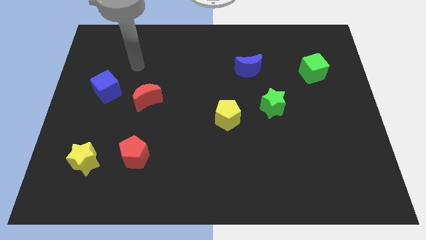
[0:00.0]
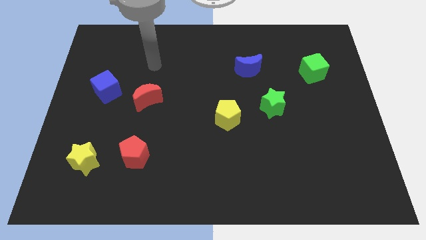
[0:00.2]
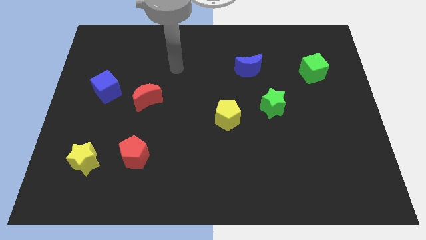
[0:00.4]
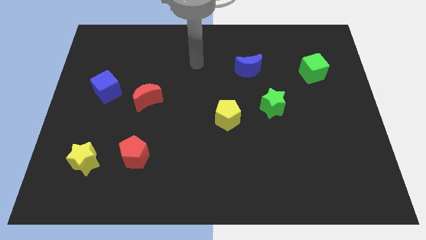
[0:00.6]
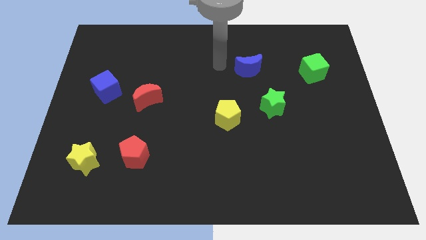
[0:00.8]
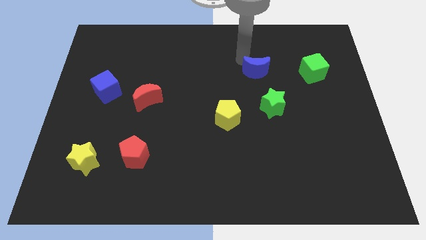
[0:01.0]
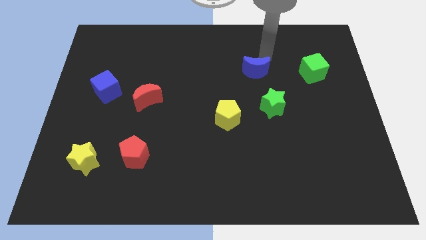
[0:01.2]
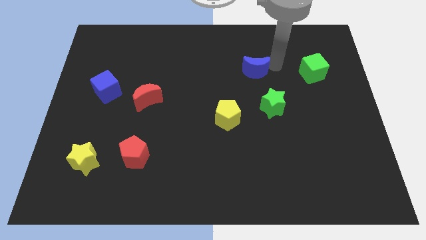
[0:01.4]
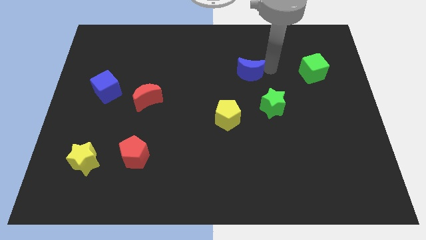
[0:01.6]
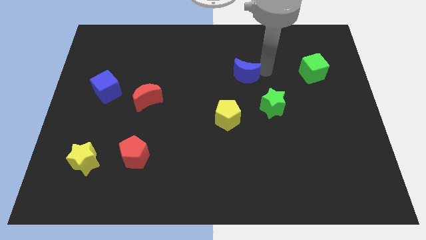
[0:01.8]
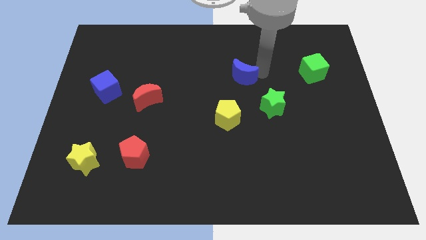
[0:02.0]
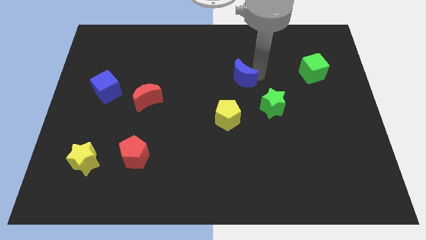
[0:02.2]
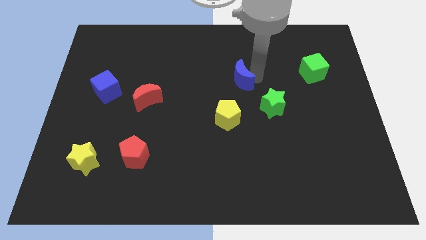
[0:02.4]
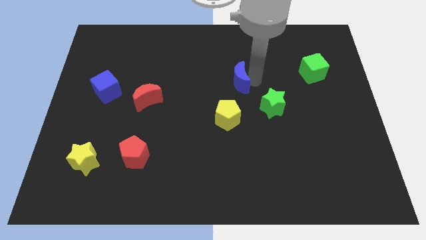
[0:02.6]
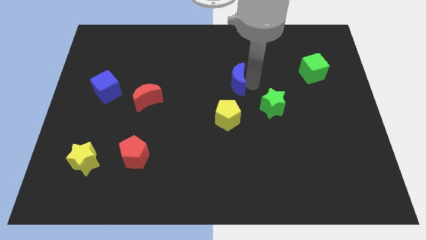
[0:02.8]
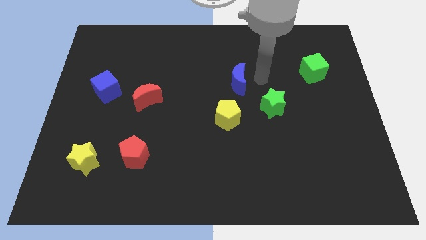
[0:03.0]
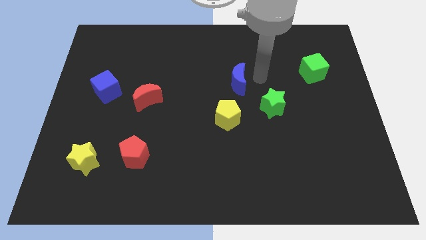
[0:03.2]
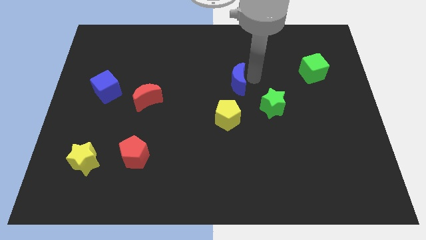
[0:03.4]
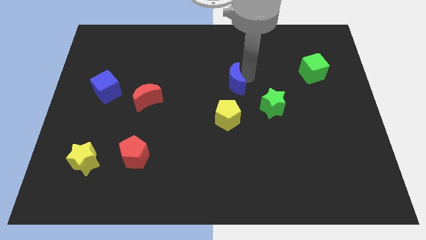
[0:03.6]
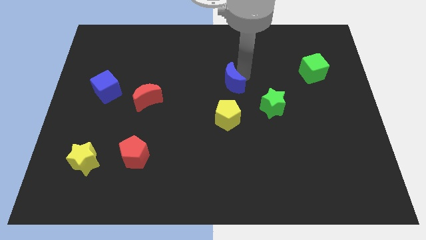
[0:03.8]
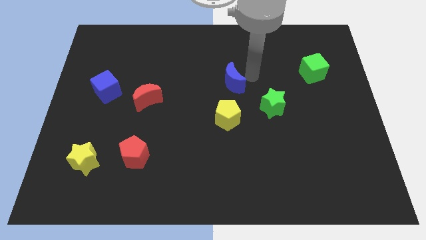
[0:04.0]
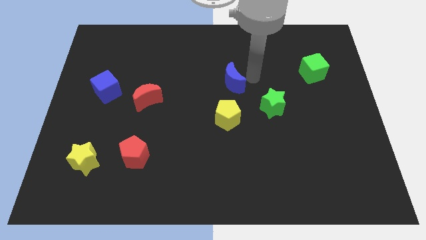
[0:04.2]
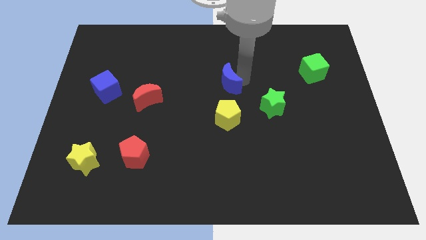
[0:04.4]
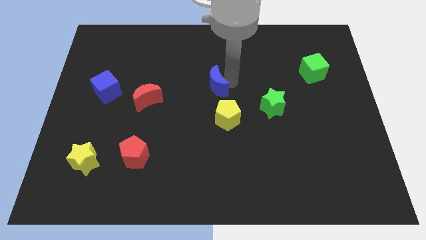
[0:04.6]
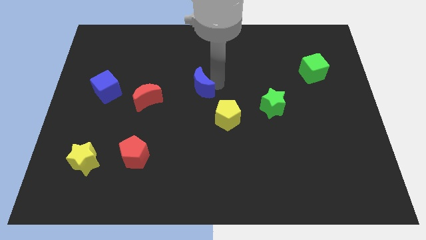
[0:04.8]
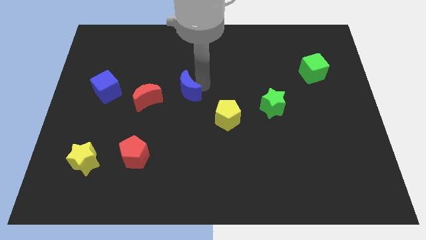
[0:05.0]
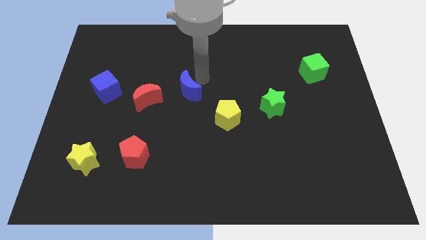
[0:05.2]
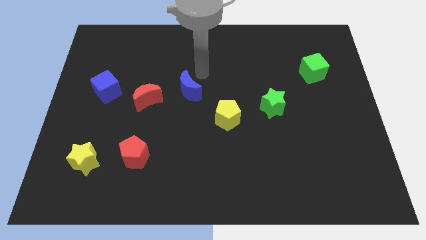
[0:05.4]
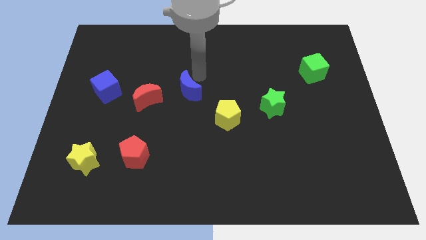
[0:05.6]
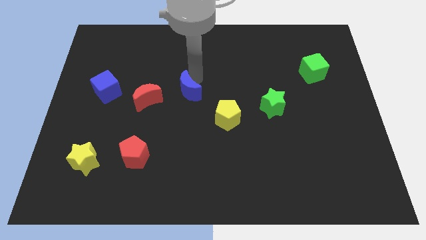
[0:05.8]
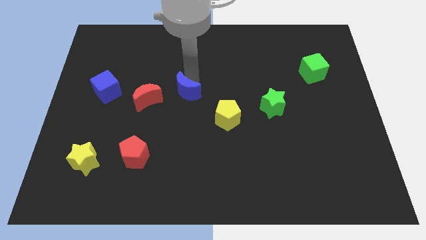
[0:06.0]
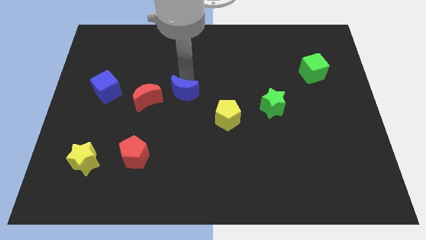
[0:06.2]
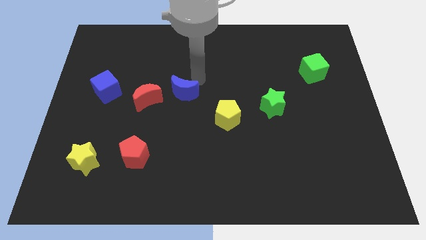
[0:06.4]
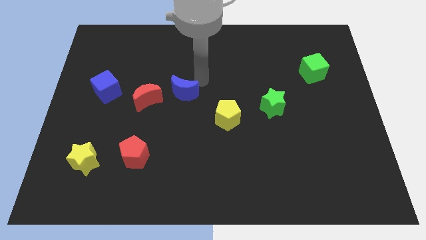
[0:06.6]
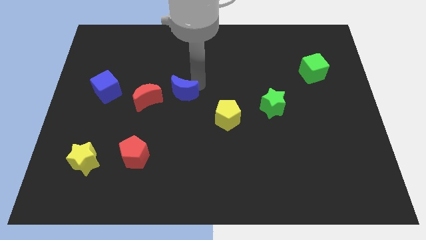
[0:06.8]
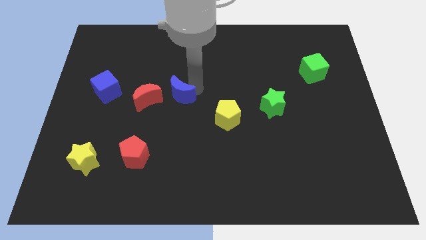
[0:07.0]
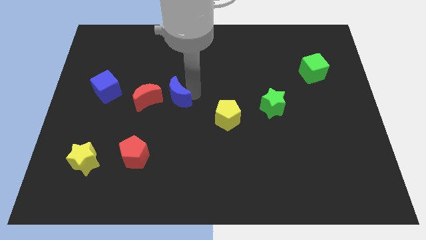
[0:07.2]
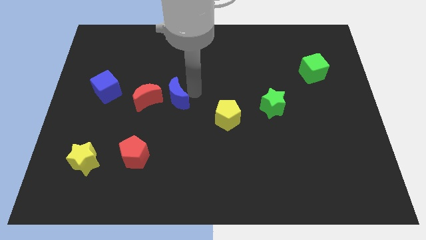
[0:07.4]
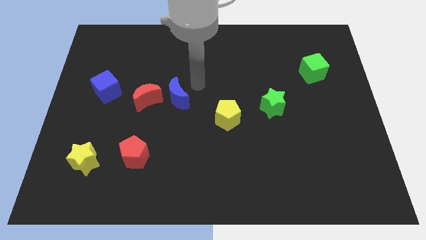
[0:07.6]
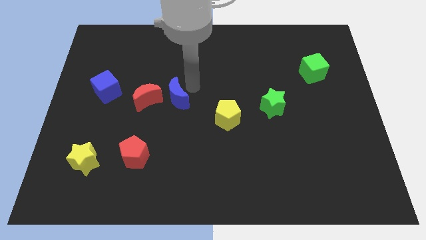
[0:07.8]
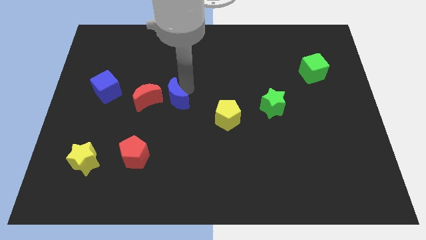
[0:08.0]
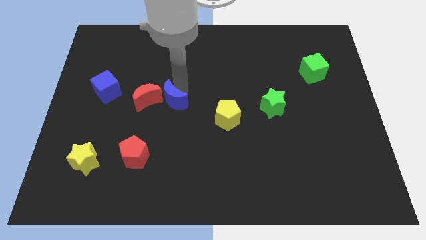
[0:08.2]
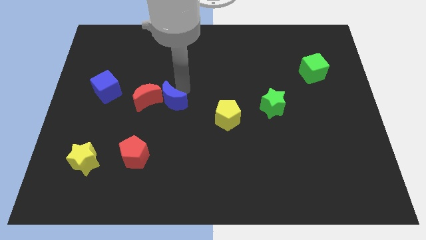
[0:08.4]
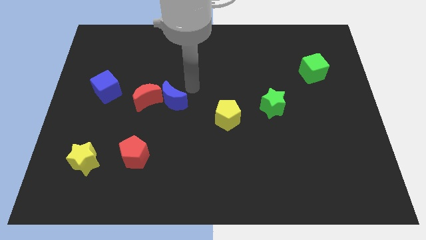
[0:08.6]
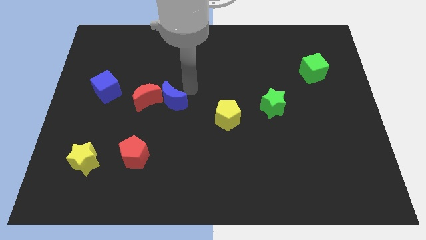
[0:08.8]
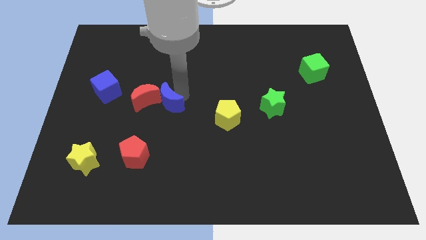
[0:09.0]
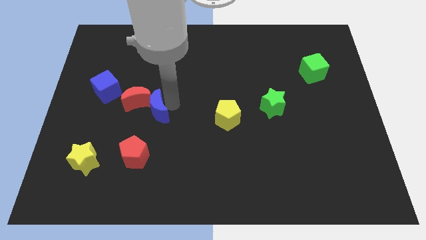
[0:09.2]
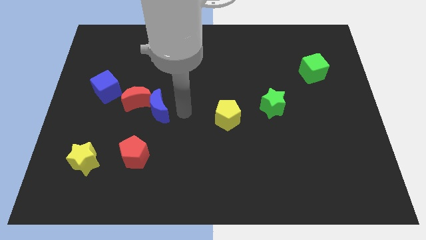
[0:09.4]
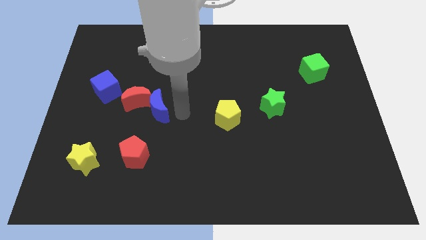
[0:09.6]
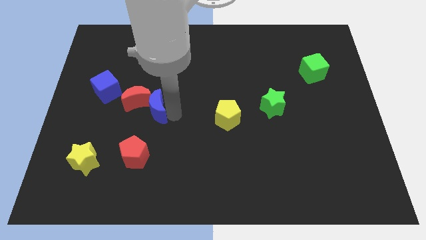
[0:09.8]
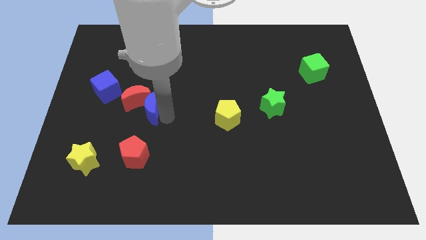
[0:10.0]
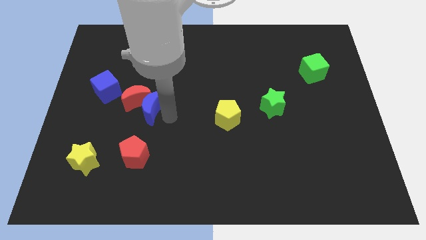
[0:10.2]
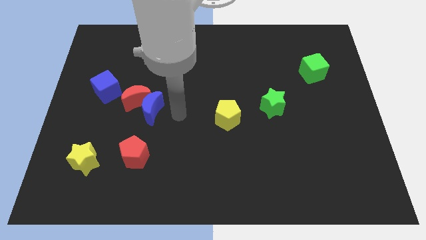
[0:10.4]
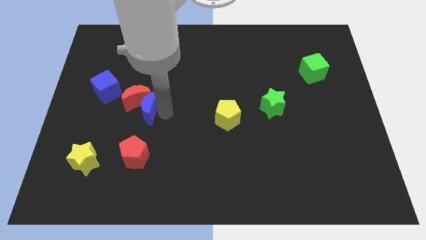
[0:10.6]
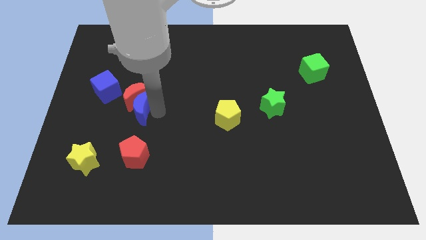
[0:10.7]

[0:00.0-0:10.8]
put the blue moon to the bottom right of the blue cube

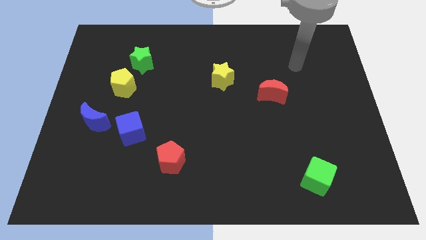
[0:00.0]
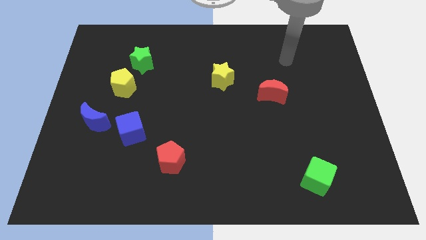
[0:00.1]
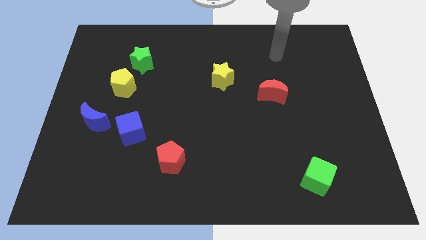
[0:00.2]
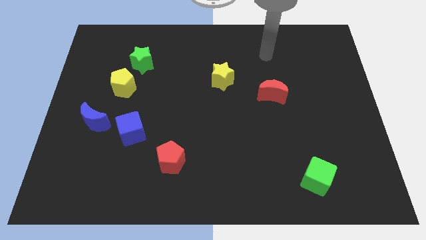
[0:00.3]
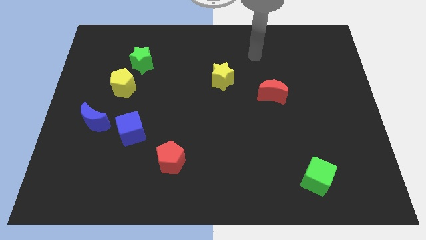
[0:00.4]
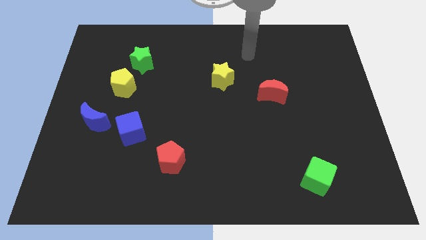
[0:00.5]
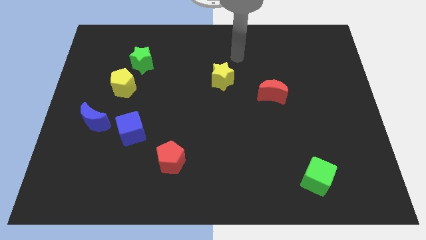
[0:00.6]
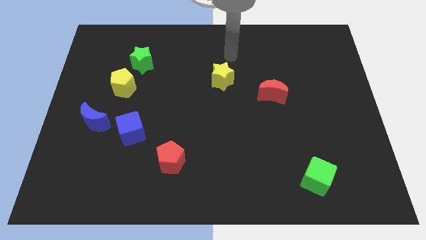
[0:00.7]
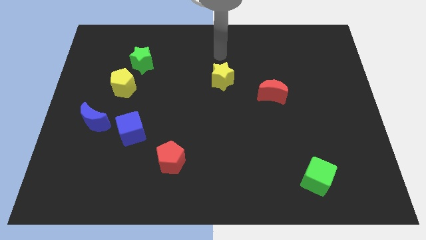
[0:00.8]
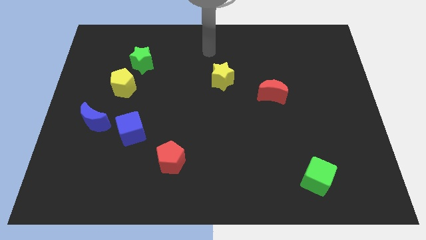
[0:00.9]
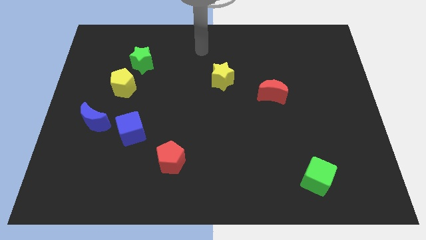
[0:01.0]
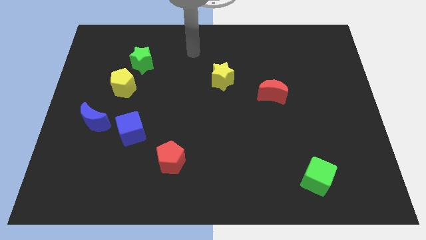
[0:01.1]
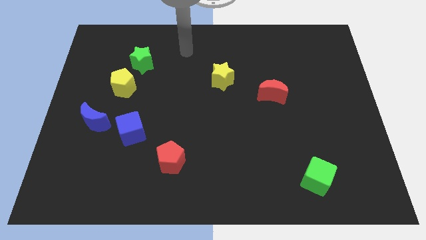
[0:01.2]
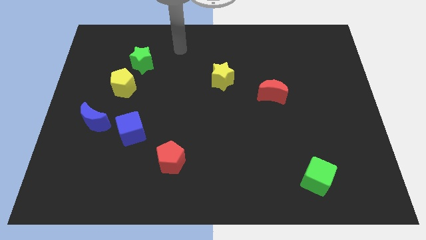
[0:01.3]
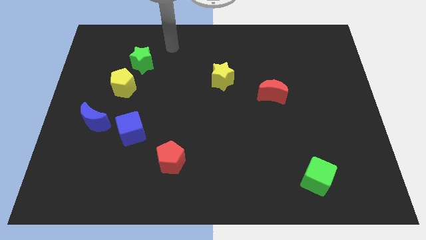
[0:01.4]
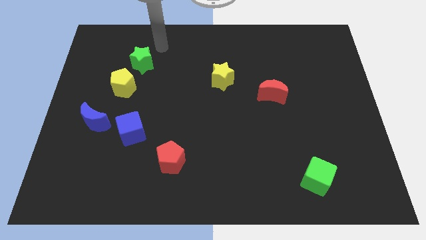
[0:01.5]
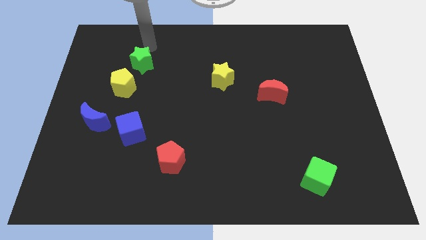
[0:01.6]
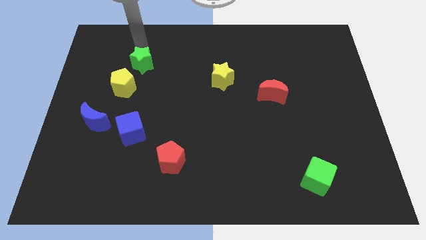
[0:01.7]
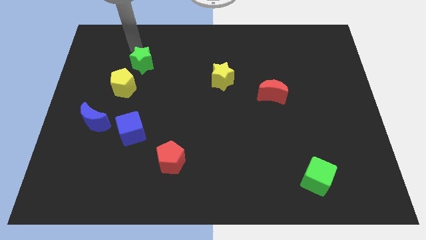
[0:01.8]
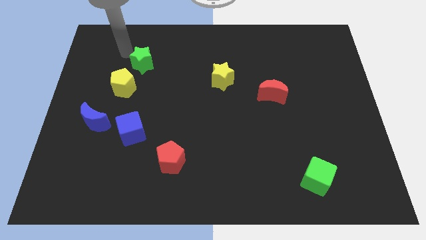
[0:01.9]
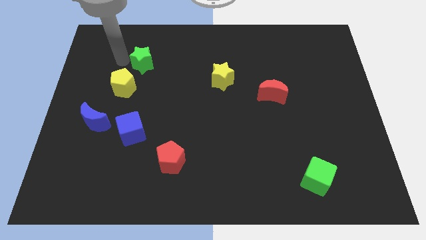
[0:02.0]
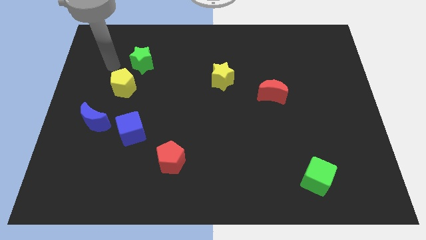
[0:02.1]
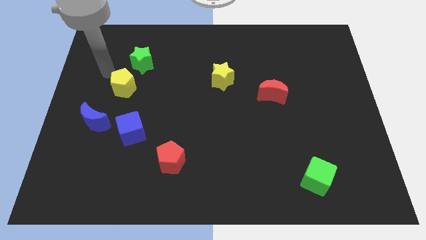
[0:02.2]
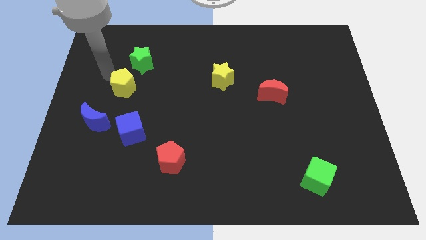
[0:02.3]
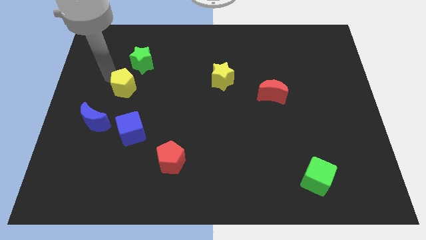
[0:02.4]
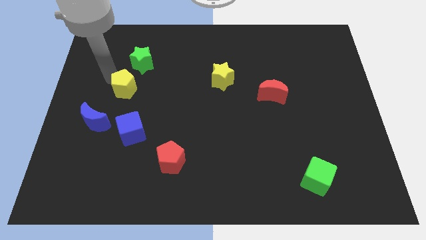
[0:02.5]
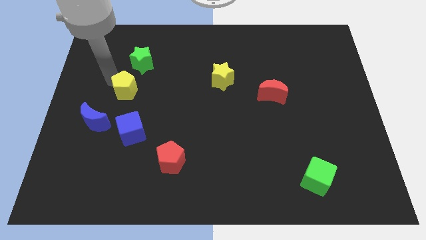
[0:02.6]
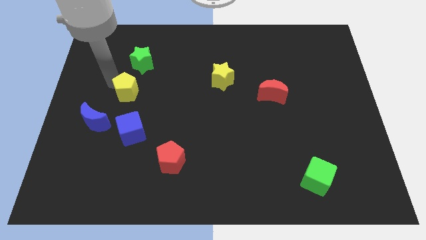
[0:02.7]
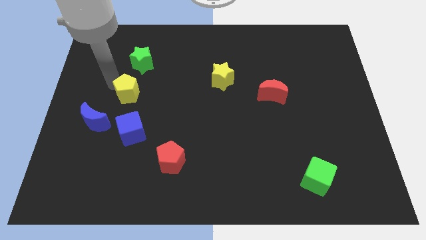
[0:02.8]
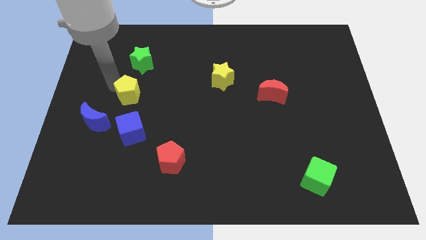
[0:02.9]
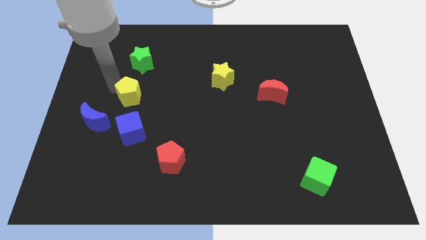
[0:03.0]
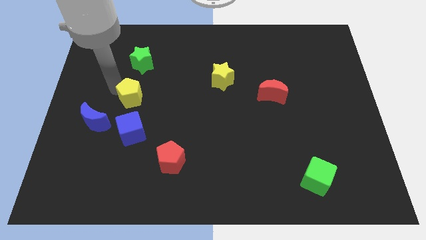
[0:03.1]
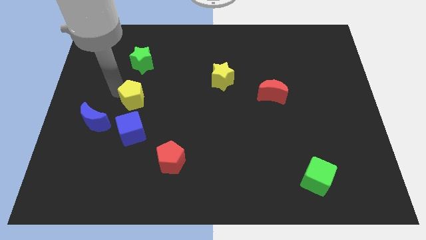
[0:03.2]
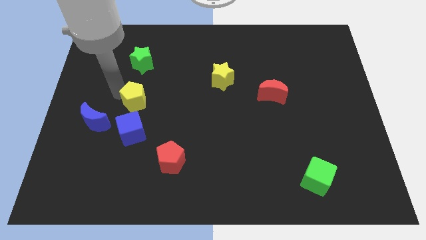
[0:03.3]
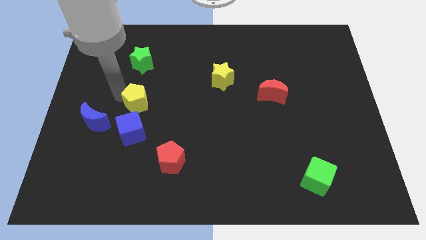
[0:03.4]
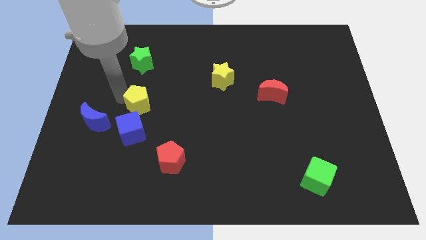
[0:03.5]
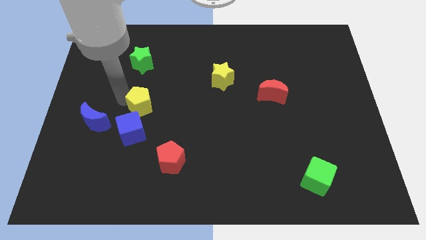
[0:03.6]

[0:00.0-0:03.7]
put the yellow pentagon to the top right of the blue cube
